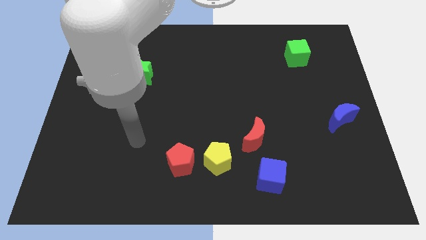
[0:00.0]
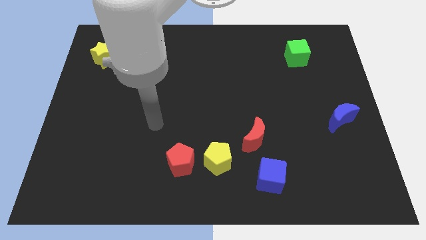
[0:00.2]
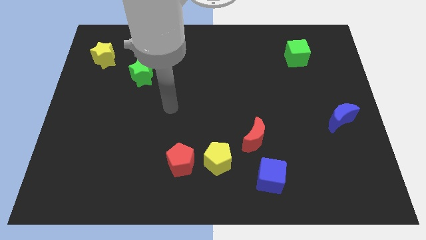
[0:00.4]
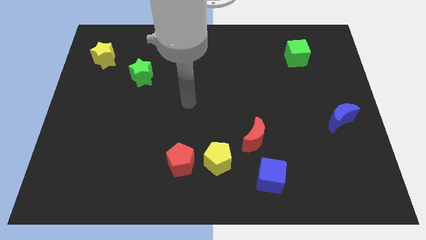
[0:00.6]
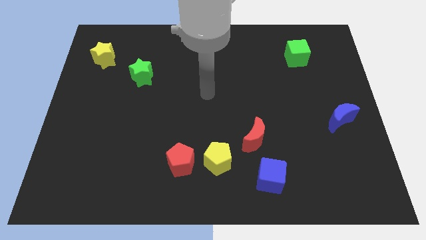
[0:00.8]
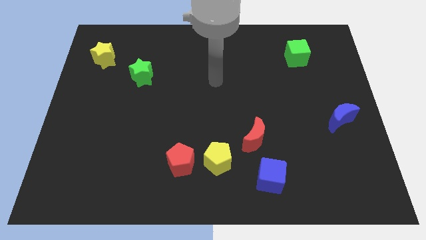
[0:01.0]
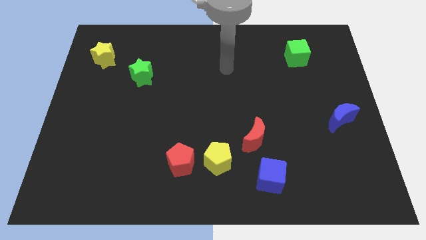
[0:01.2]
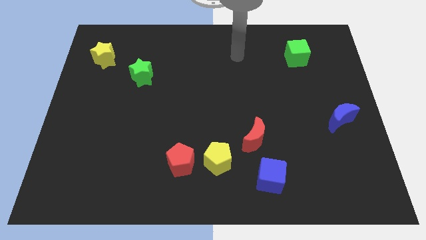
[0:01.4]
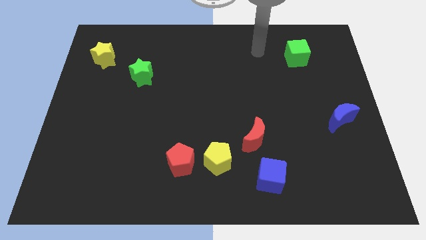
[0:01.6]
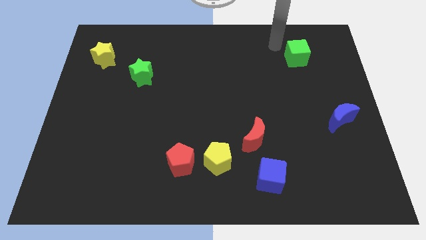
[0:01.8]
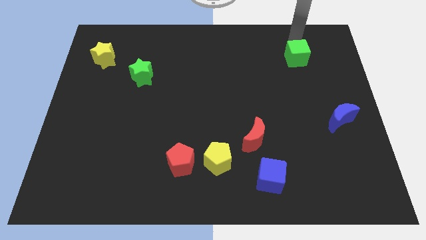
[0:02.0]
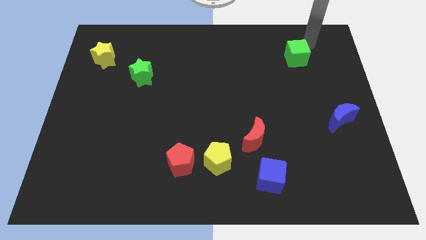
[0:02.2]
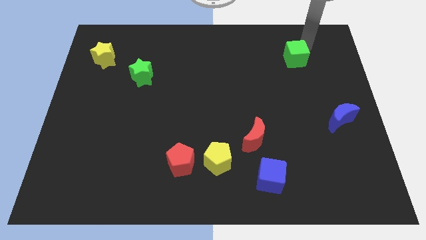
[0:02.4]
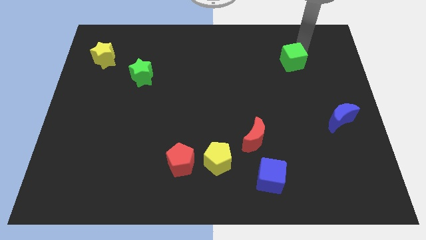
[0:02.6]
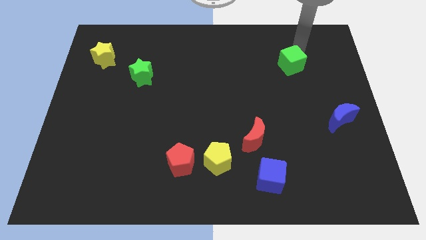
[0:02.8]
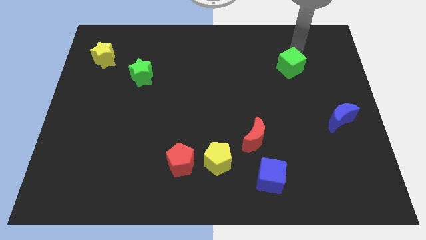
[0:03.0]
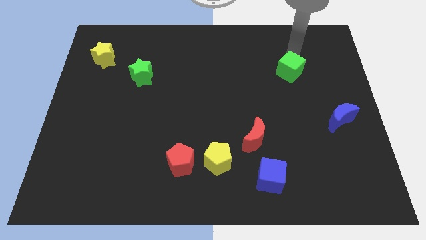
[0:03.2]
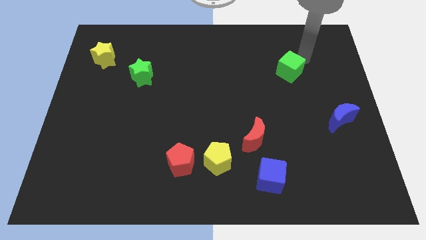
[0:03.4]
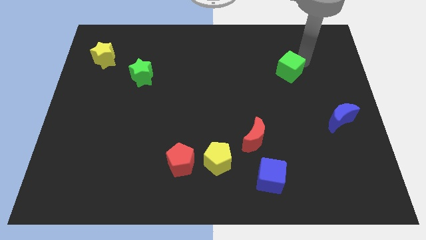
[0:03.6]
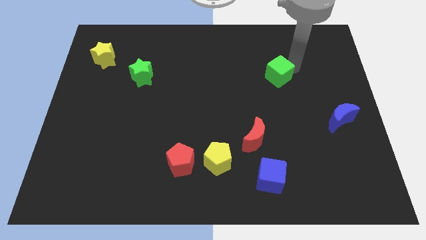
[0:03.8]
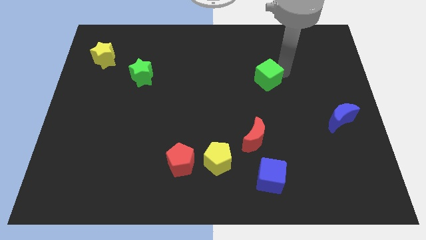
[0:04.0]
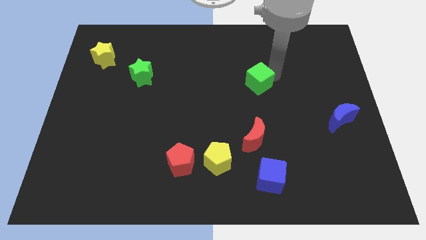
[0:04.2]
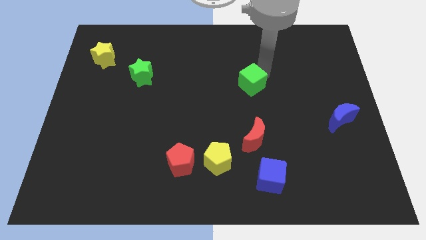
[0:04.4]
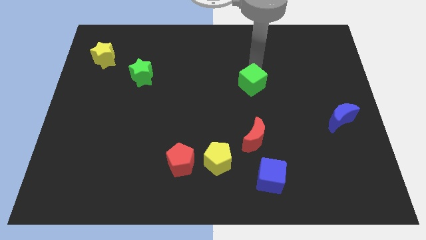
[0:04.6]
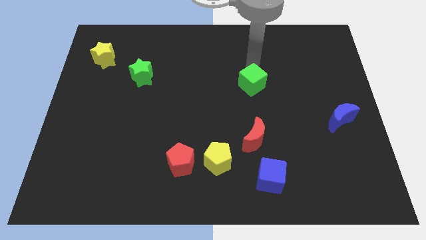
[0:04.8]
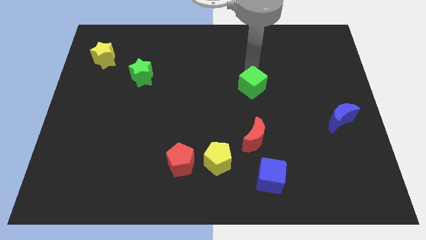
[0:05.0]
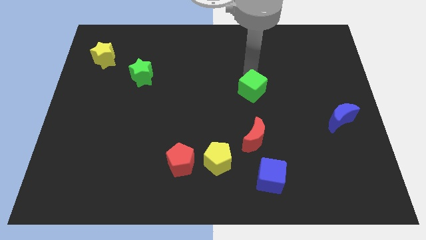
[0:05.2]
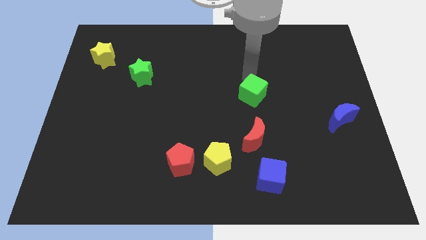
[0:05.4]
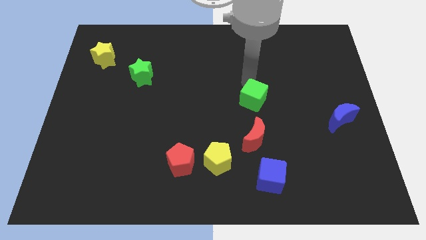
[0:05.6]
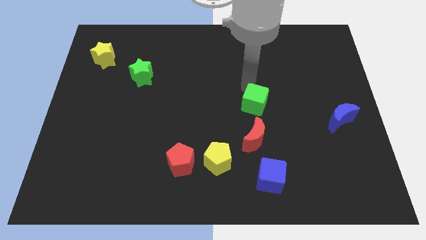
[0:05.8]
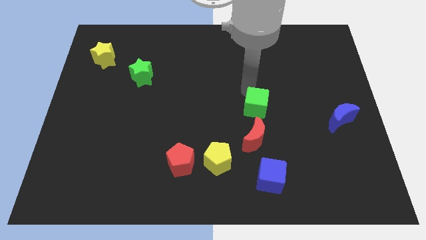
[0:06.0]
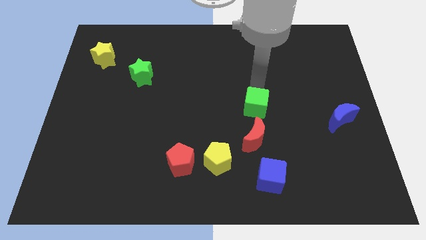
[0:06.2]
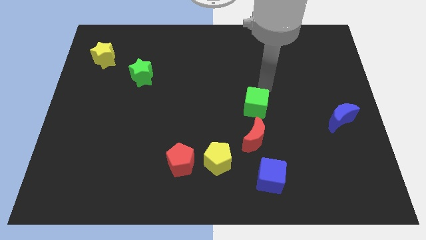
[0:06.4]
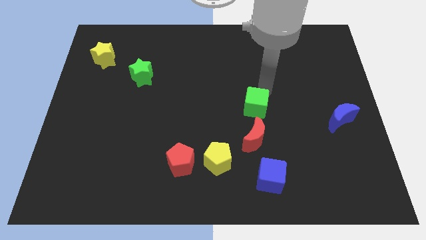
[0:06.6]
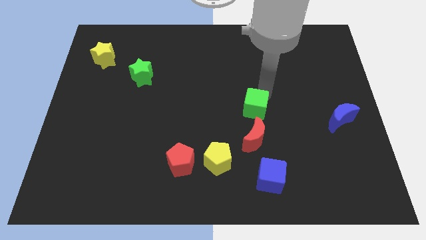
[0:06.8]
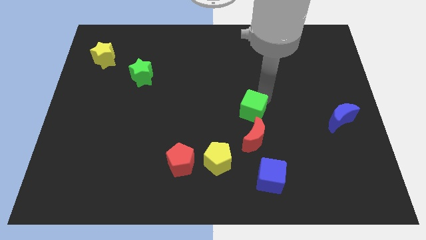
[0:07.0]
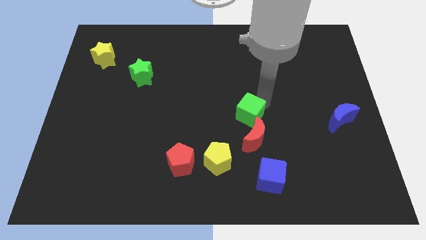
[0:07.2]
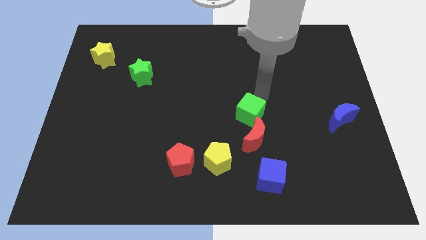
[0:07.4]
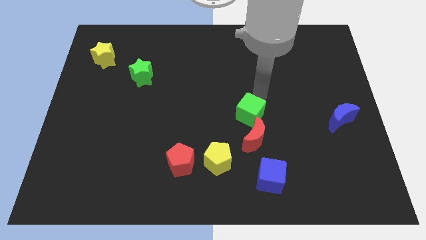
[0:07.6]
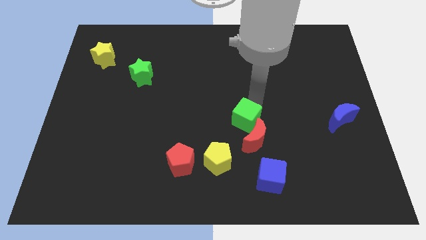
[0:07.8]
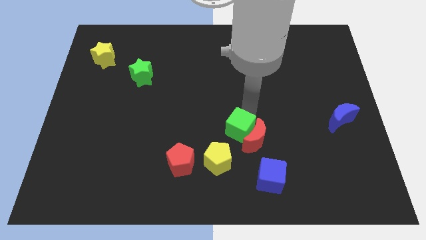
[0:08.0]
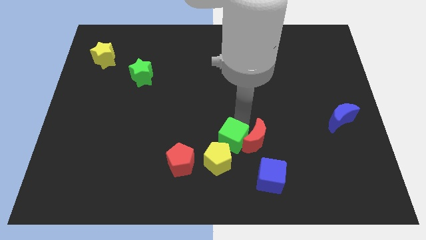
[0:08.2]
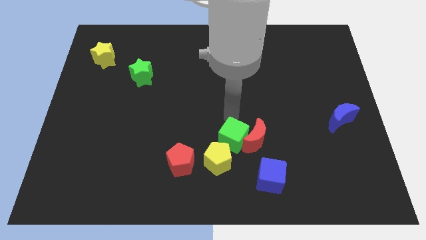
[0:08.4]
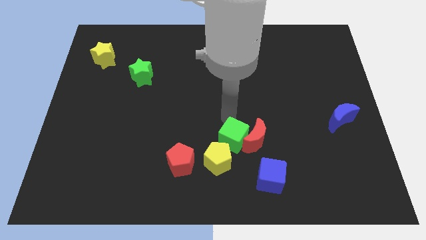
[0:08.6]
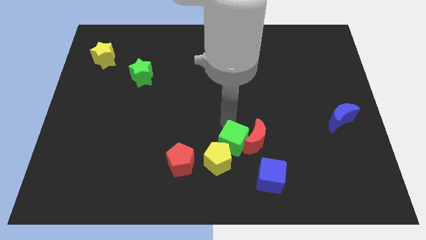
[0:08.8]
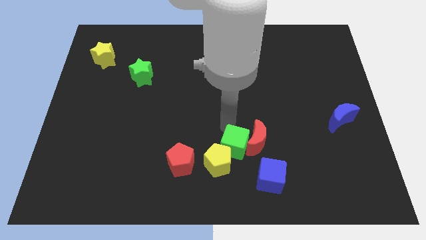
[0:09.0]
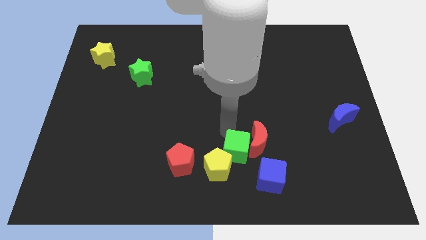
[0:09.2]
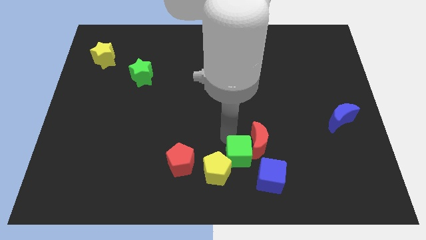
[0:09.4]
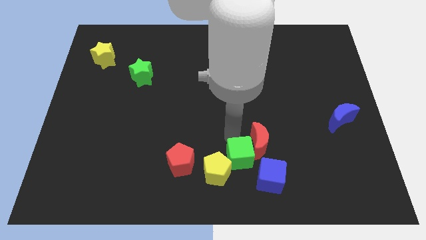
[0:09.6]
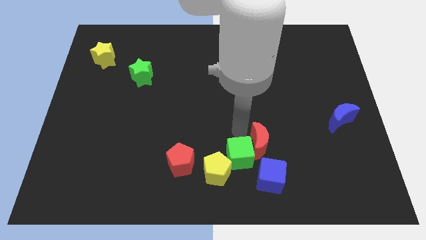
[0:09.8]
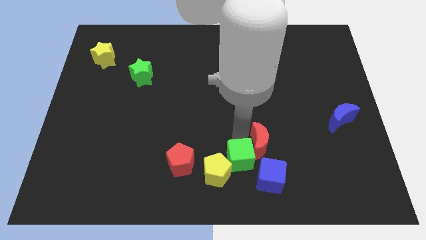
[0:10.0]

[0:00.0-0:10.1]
put the green cube to the bottom

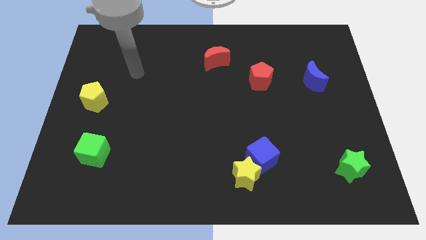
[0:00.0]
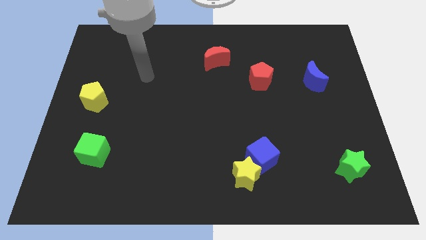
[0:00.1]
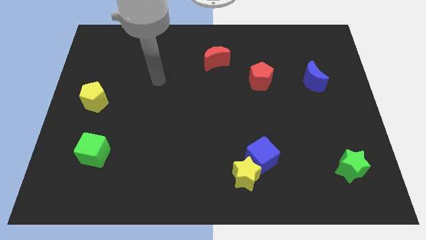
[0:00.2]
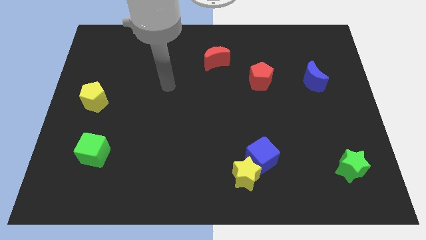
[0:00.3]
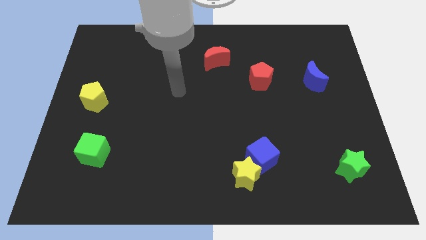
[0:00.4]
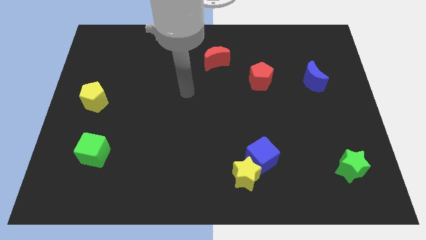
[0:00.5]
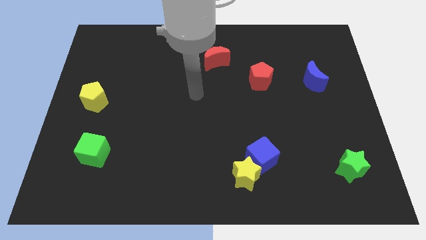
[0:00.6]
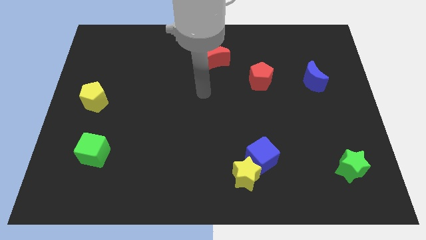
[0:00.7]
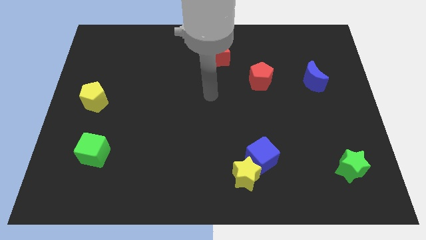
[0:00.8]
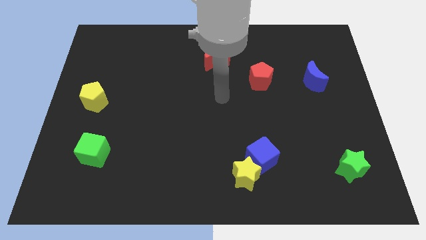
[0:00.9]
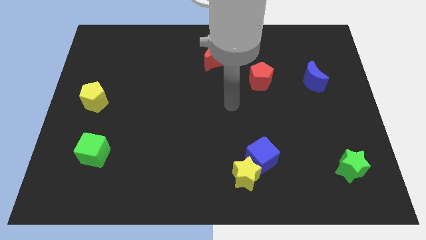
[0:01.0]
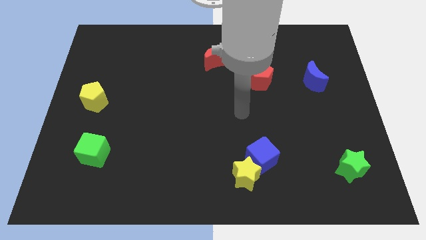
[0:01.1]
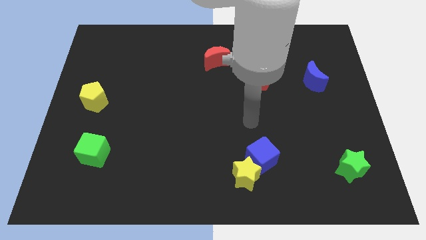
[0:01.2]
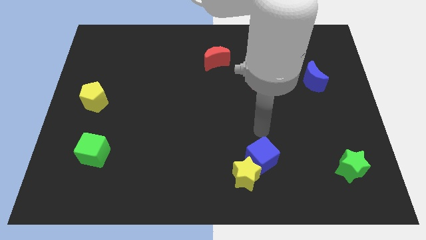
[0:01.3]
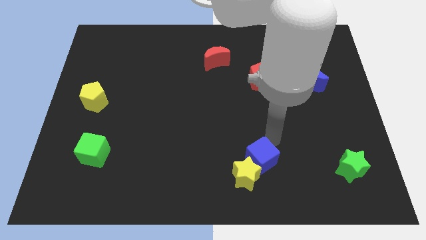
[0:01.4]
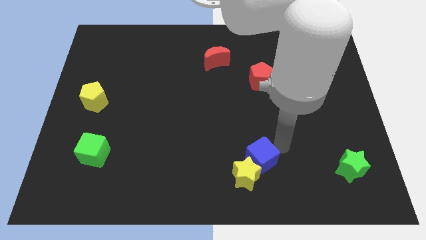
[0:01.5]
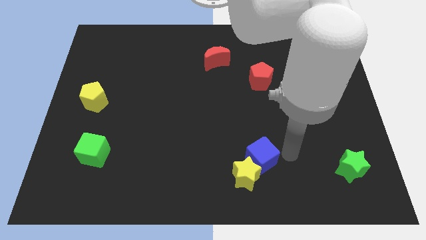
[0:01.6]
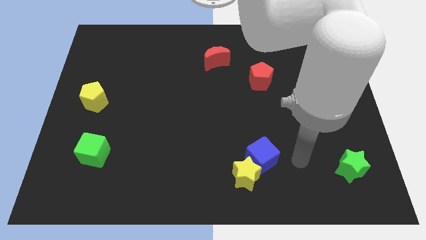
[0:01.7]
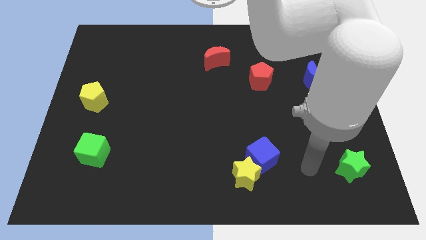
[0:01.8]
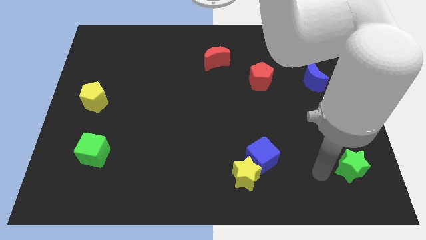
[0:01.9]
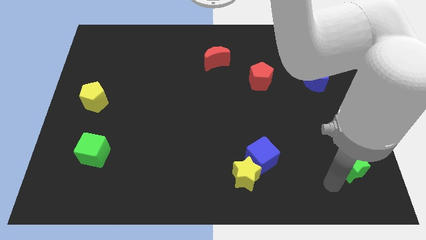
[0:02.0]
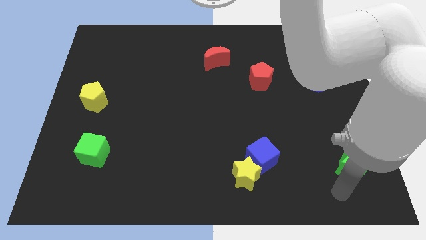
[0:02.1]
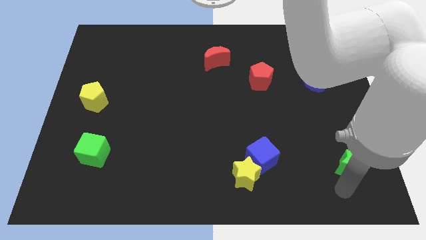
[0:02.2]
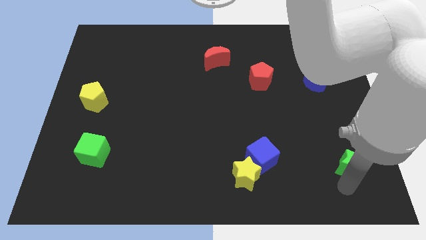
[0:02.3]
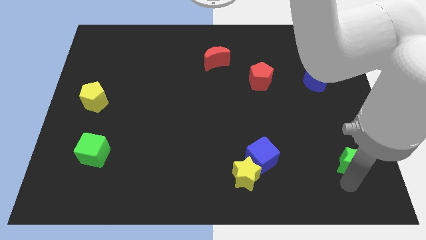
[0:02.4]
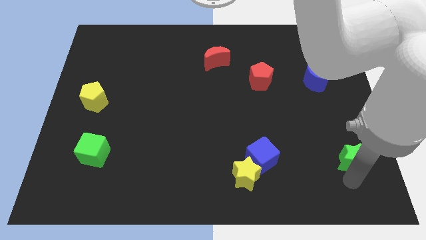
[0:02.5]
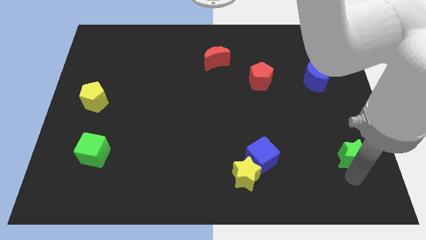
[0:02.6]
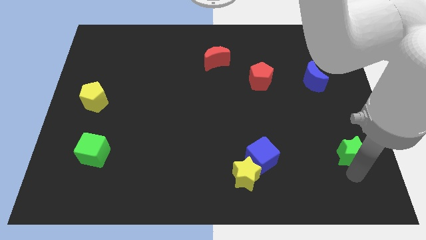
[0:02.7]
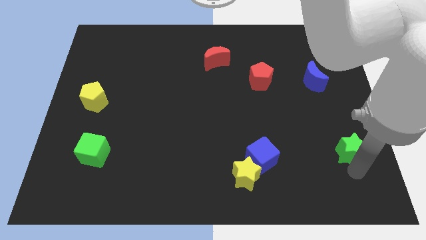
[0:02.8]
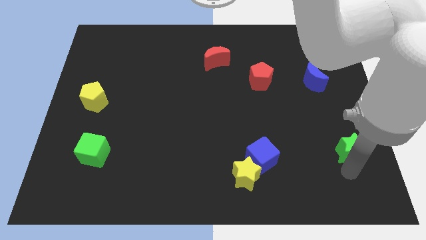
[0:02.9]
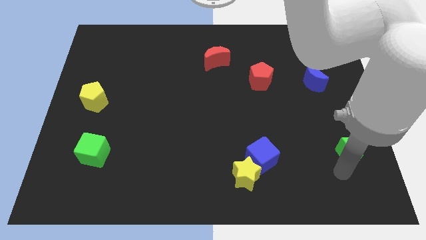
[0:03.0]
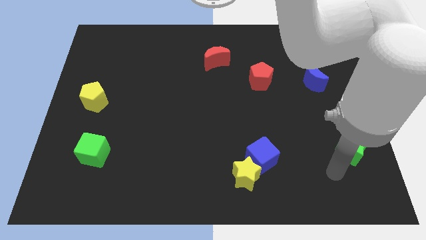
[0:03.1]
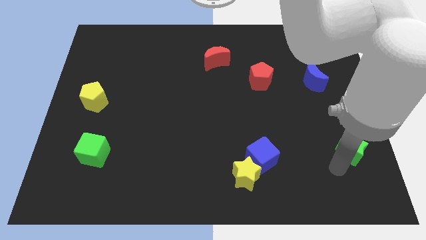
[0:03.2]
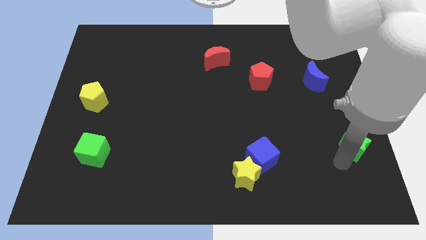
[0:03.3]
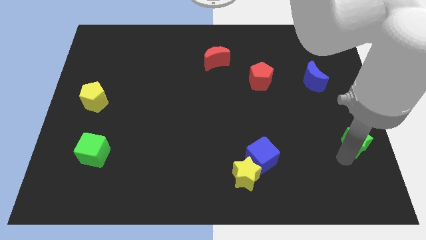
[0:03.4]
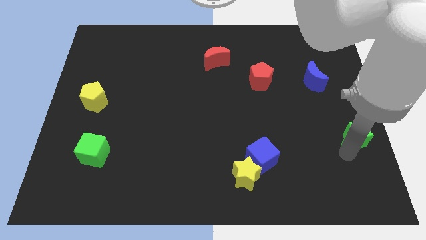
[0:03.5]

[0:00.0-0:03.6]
push the green star to the right side of the board
